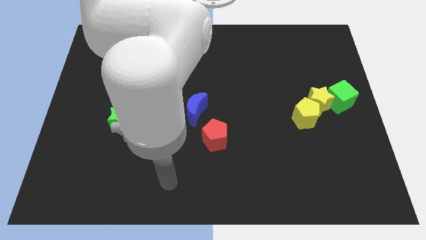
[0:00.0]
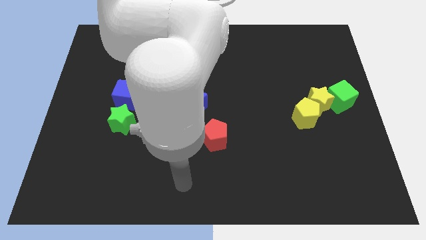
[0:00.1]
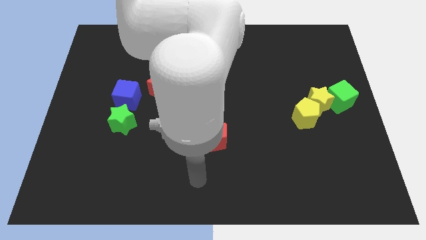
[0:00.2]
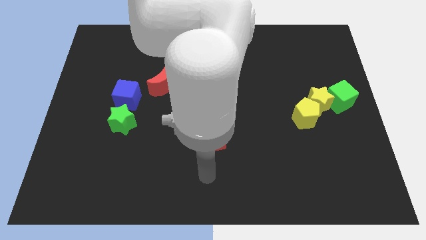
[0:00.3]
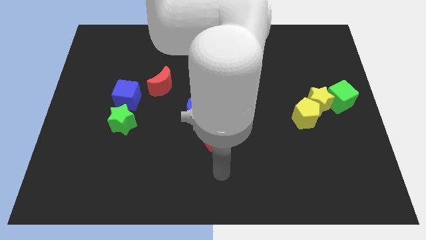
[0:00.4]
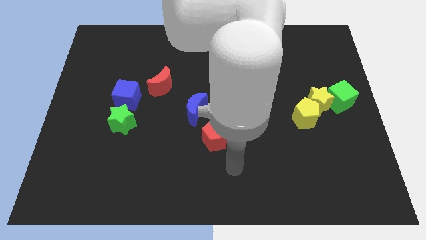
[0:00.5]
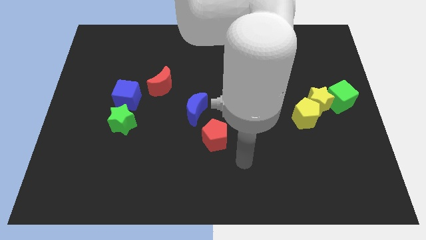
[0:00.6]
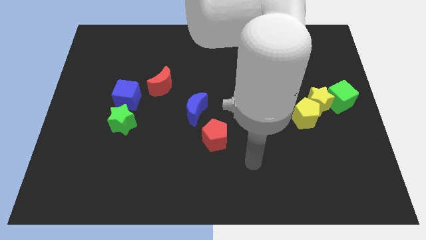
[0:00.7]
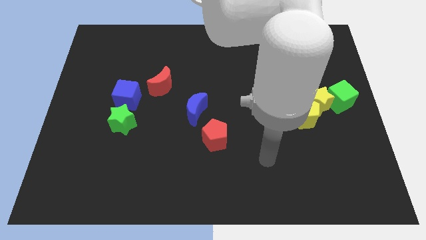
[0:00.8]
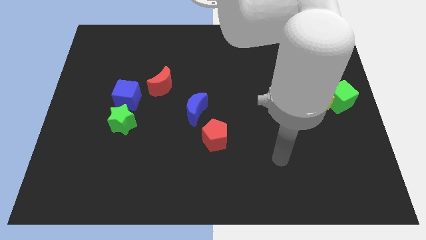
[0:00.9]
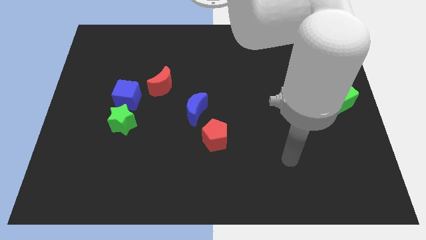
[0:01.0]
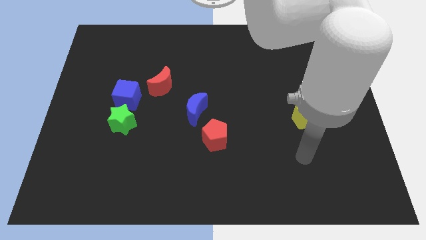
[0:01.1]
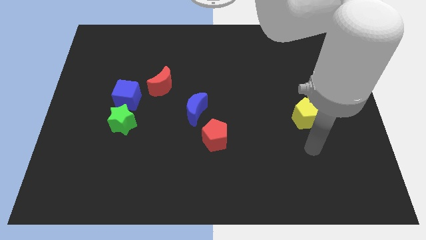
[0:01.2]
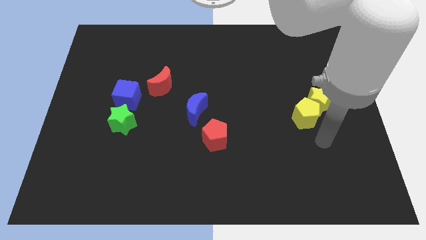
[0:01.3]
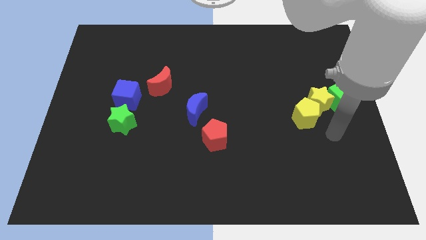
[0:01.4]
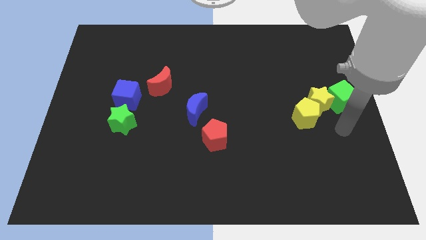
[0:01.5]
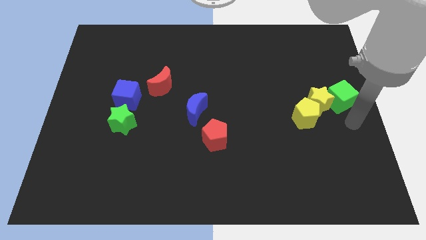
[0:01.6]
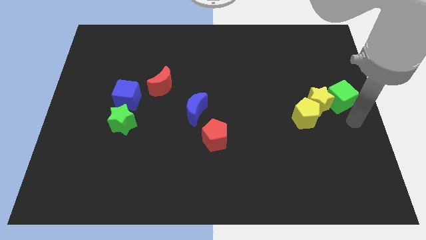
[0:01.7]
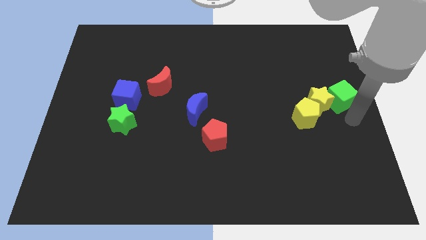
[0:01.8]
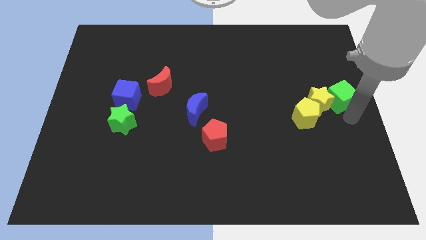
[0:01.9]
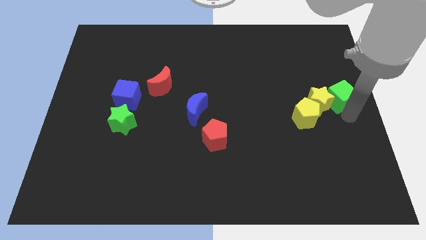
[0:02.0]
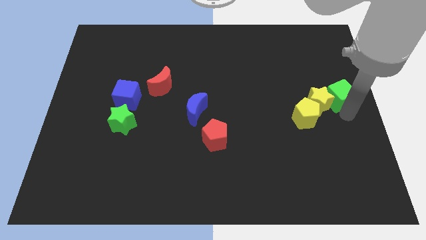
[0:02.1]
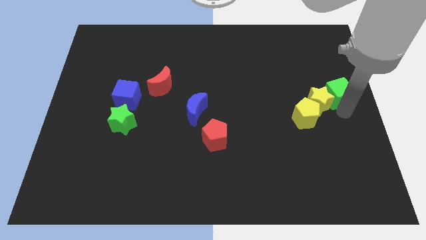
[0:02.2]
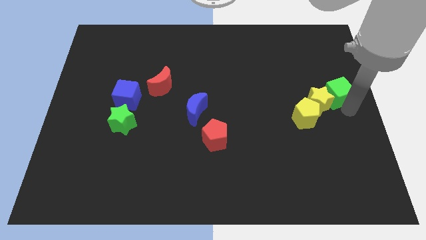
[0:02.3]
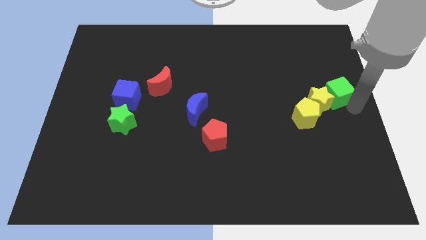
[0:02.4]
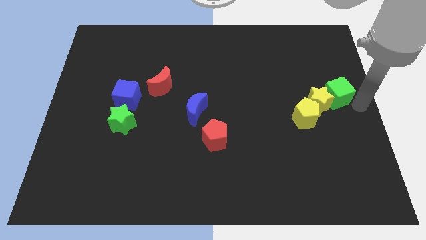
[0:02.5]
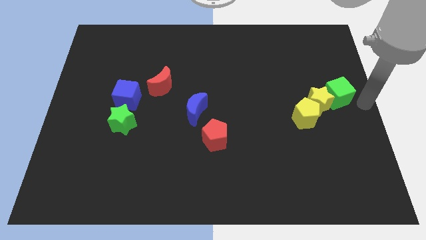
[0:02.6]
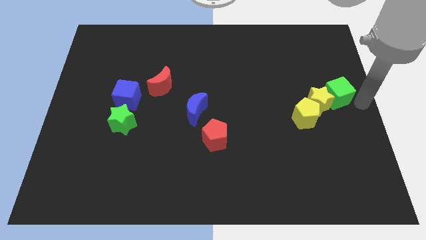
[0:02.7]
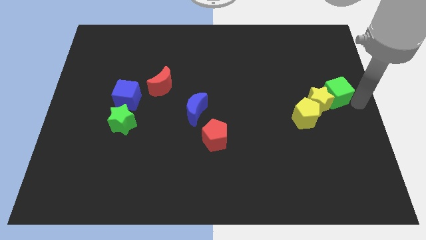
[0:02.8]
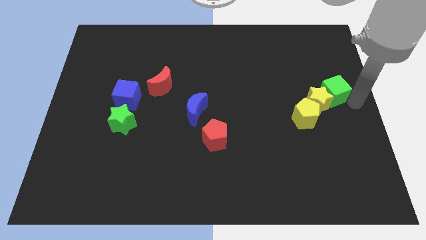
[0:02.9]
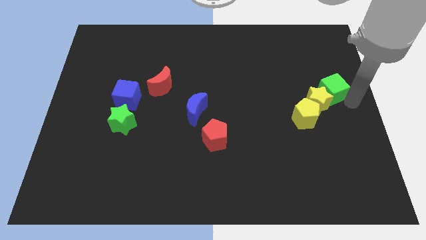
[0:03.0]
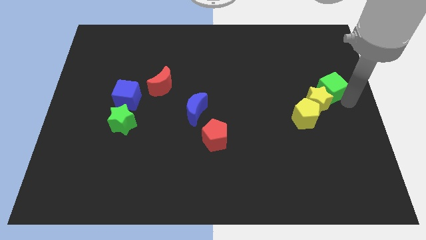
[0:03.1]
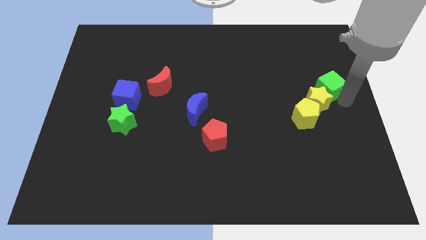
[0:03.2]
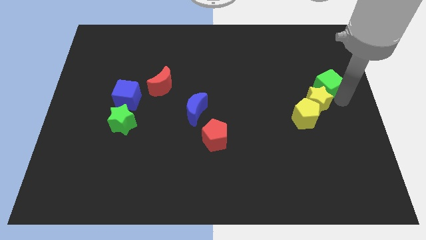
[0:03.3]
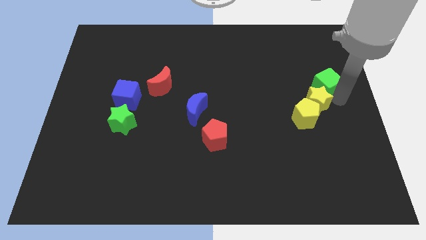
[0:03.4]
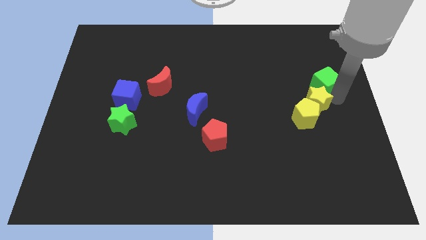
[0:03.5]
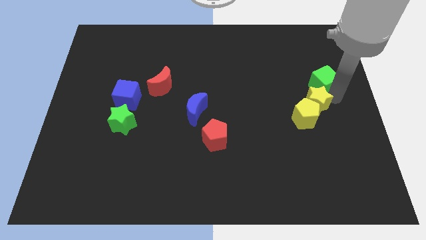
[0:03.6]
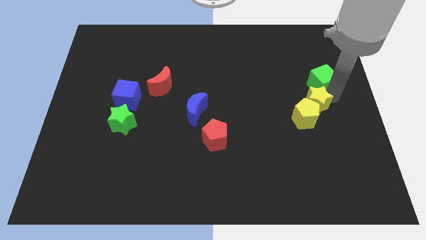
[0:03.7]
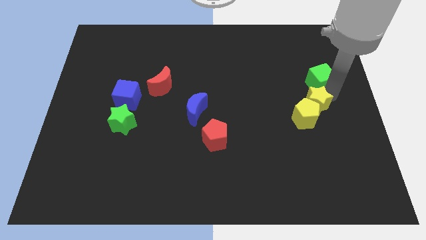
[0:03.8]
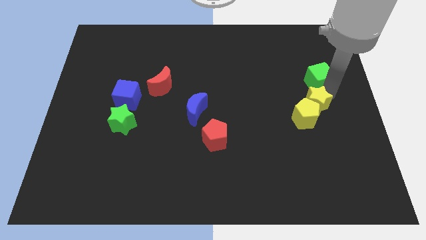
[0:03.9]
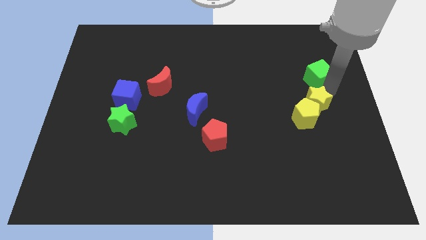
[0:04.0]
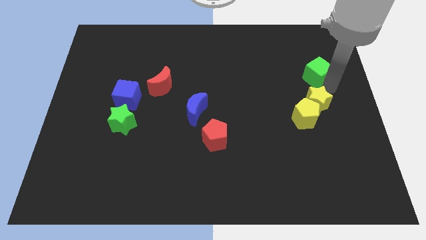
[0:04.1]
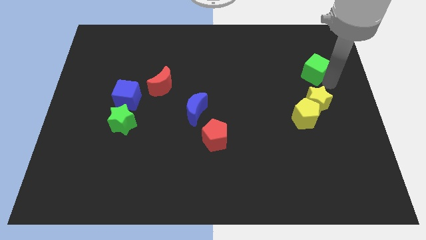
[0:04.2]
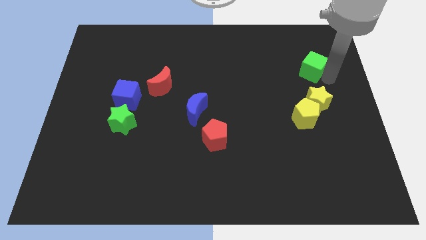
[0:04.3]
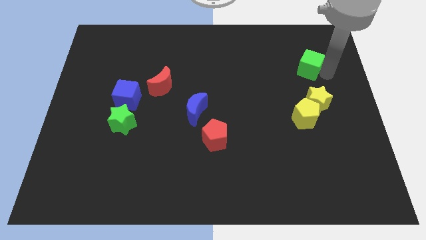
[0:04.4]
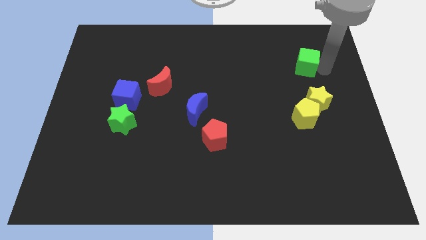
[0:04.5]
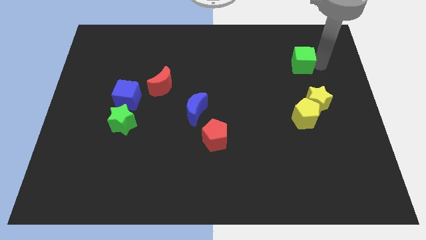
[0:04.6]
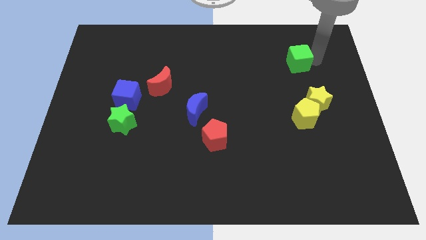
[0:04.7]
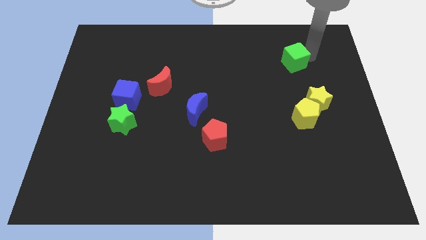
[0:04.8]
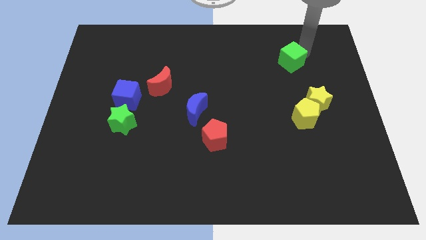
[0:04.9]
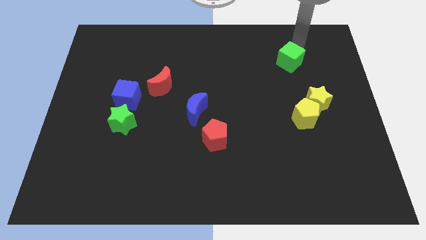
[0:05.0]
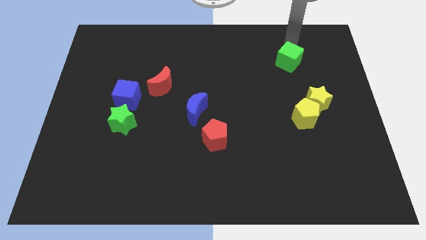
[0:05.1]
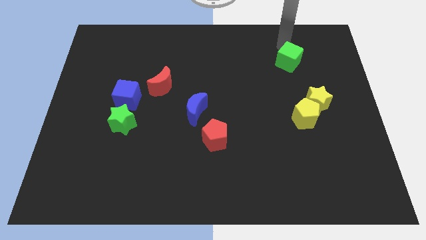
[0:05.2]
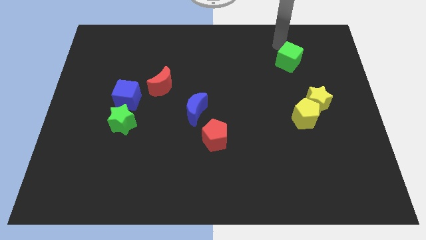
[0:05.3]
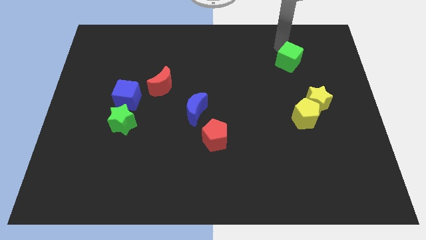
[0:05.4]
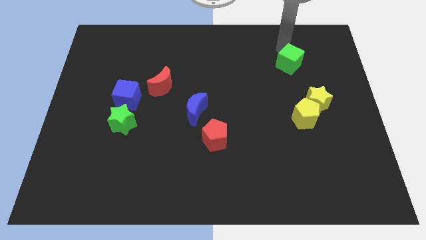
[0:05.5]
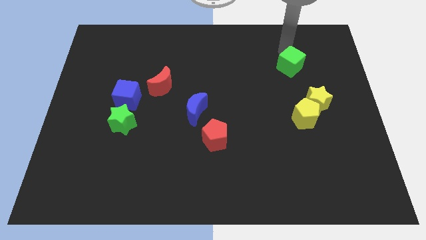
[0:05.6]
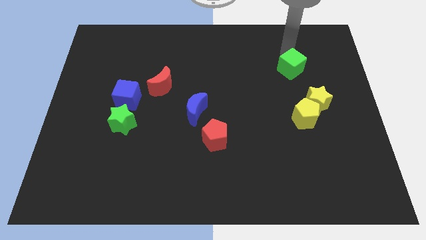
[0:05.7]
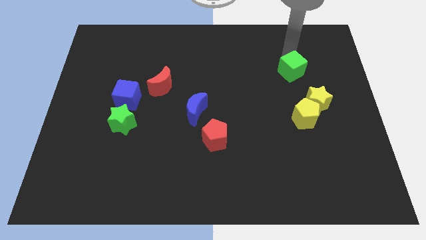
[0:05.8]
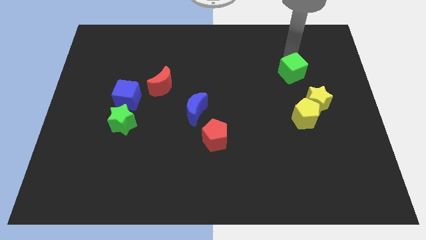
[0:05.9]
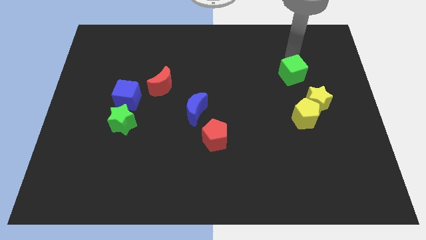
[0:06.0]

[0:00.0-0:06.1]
move the green cube to the left a bit

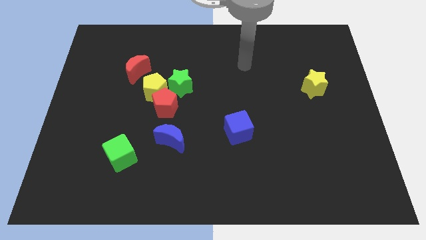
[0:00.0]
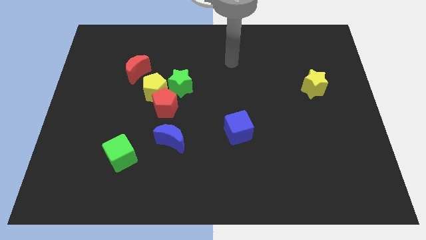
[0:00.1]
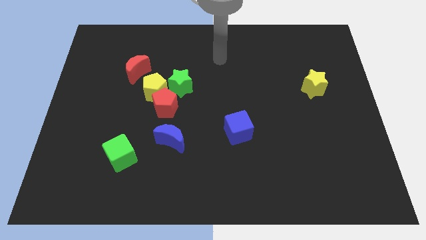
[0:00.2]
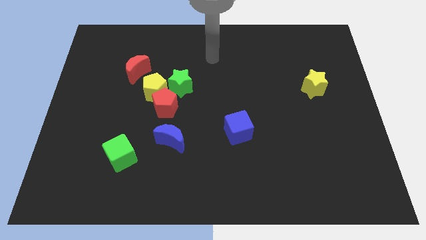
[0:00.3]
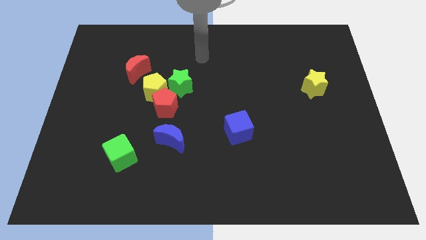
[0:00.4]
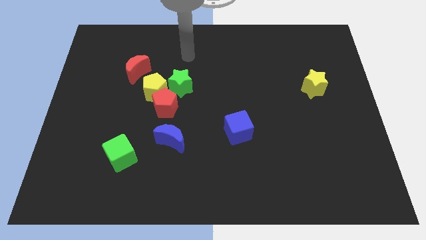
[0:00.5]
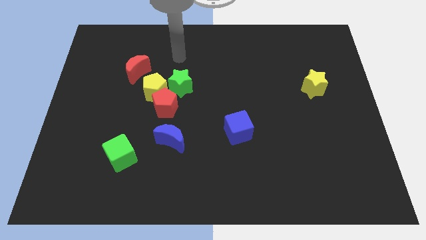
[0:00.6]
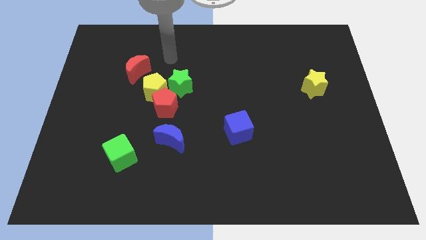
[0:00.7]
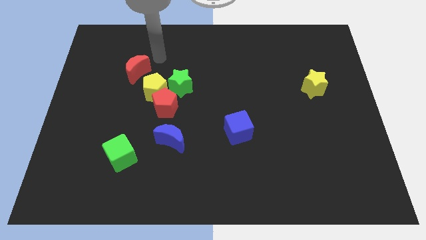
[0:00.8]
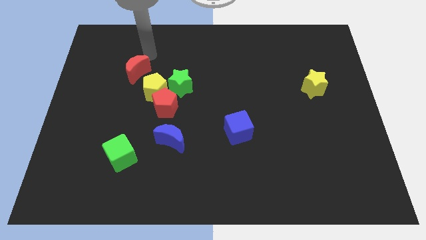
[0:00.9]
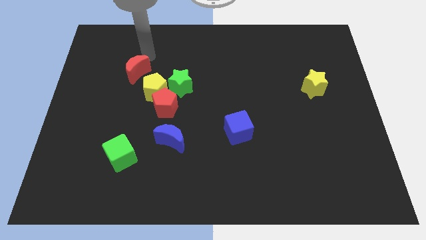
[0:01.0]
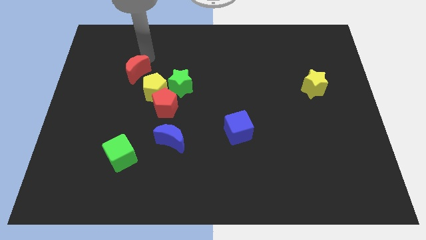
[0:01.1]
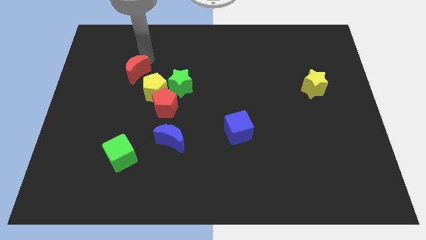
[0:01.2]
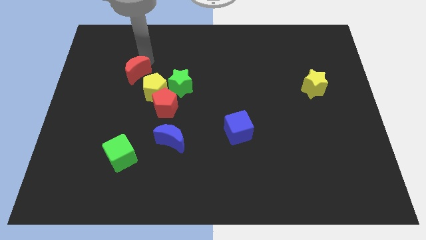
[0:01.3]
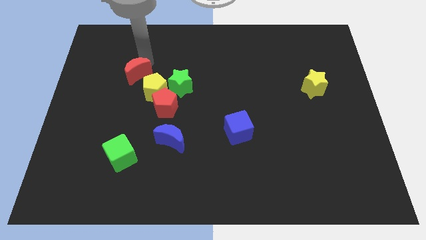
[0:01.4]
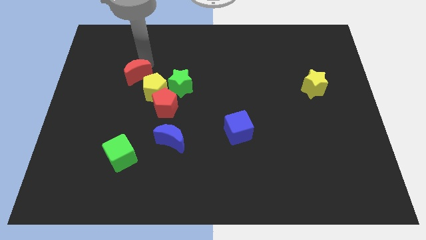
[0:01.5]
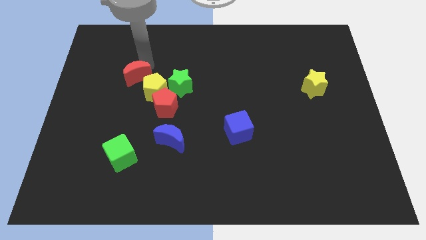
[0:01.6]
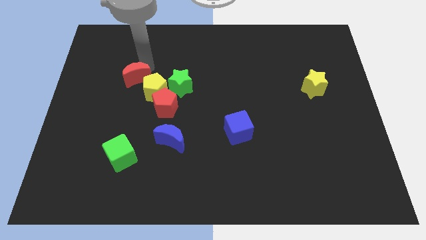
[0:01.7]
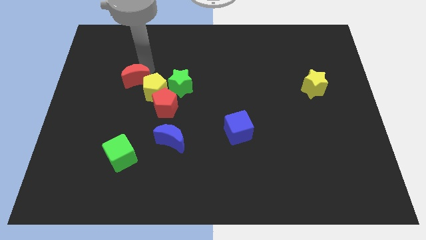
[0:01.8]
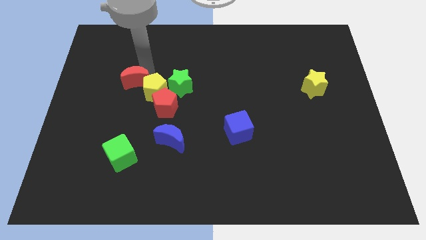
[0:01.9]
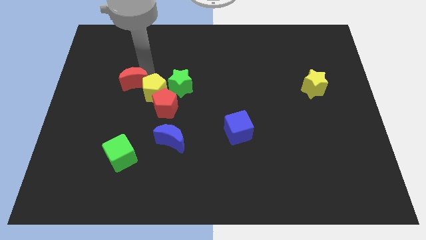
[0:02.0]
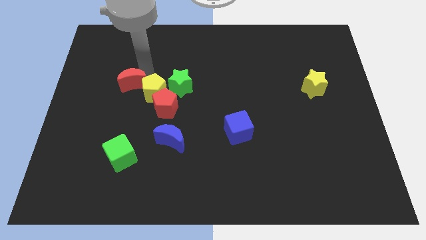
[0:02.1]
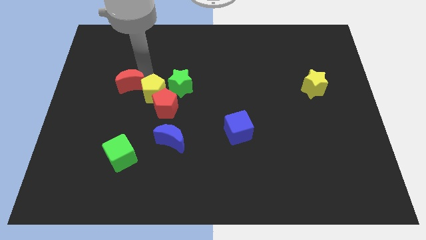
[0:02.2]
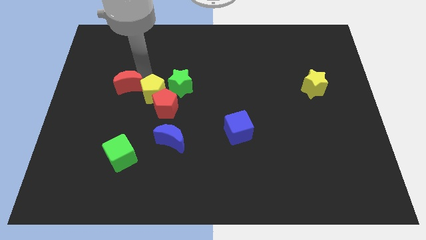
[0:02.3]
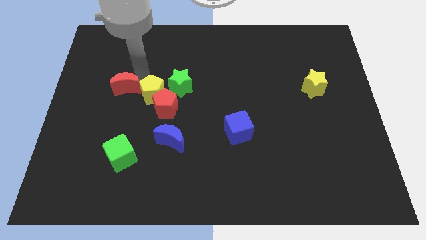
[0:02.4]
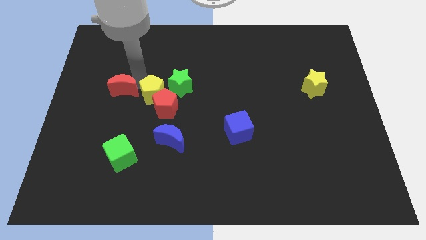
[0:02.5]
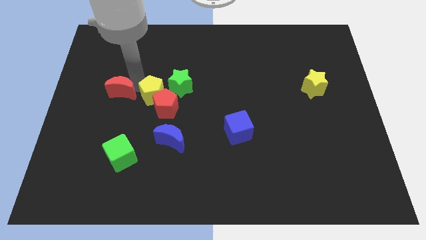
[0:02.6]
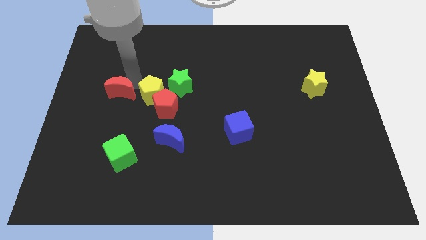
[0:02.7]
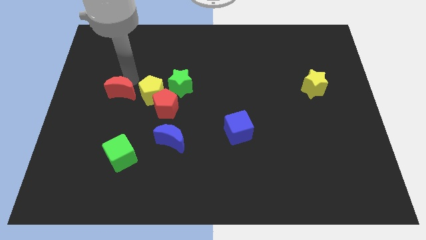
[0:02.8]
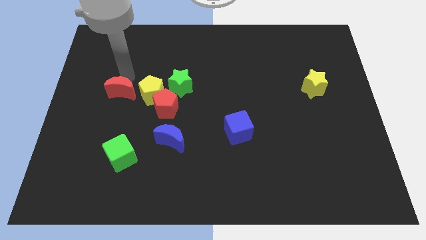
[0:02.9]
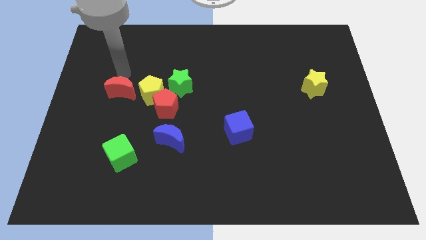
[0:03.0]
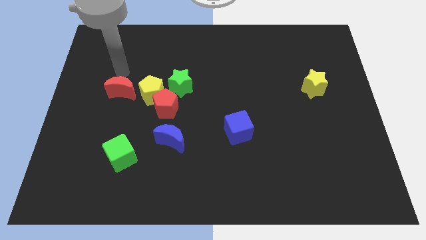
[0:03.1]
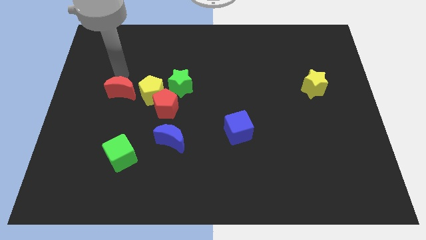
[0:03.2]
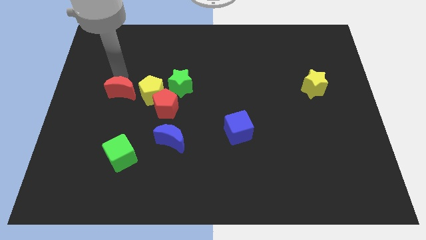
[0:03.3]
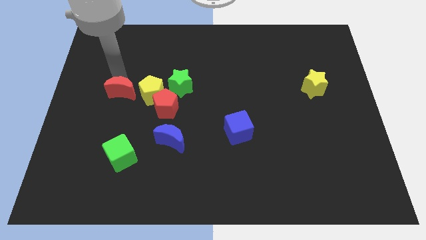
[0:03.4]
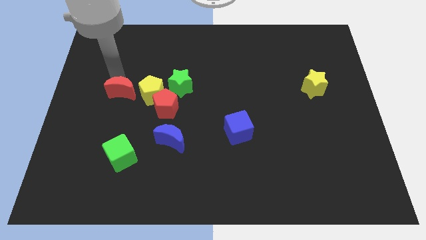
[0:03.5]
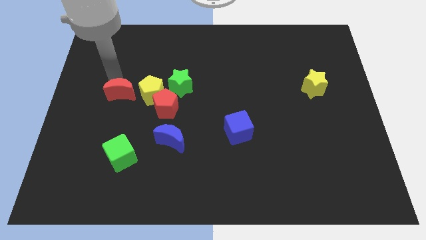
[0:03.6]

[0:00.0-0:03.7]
move the red moon downwards slightly
